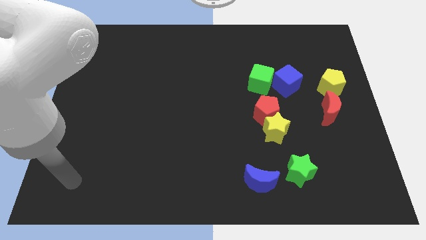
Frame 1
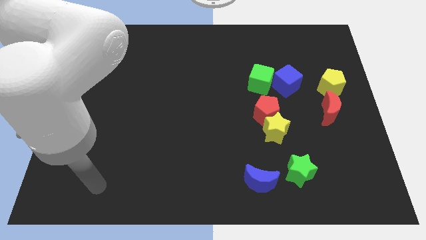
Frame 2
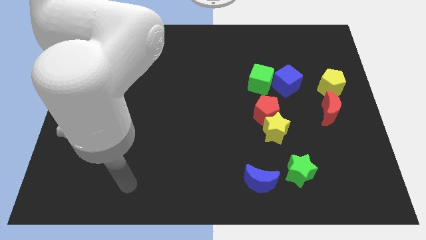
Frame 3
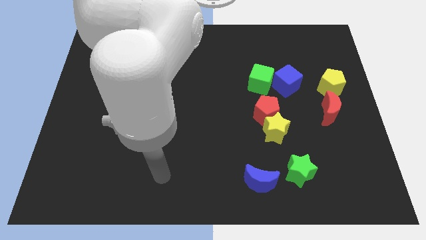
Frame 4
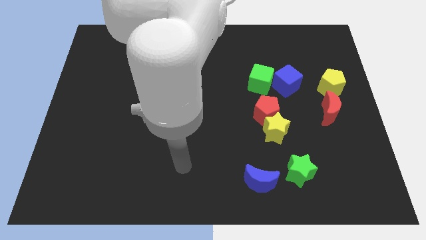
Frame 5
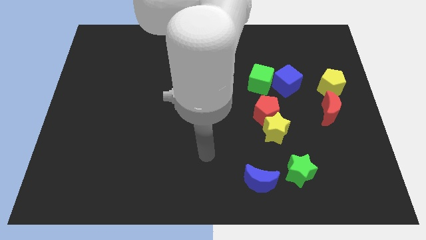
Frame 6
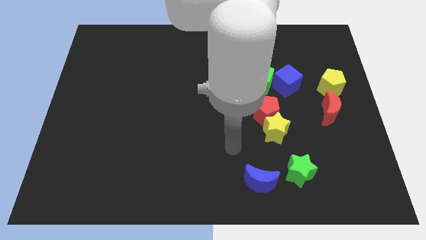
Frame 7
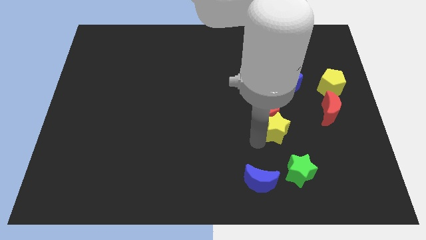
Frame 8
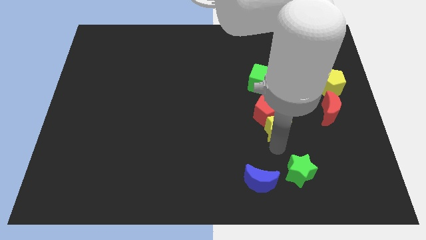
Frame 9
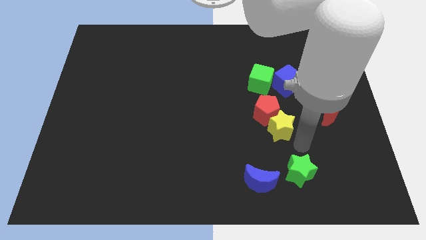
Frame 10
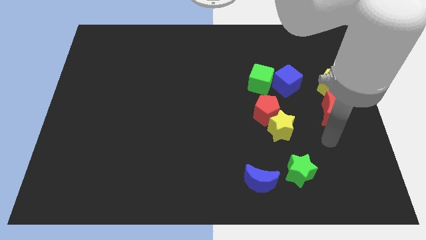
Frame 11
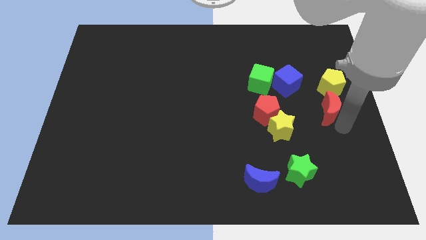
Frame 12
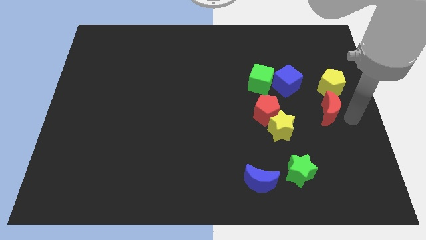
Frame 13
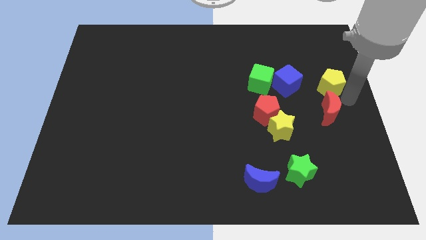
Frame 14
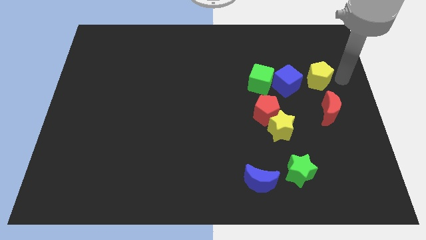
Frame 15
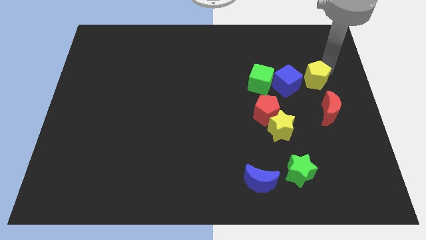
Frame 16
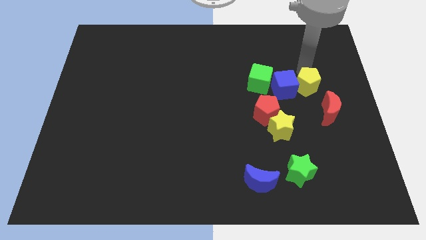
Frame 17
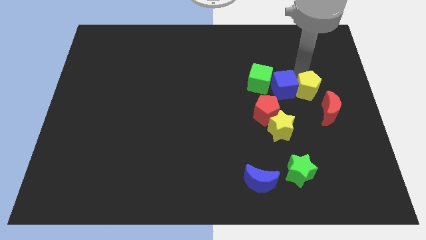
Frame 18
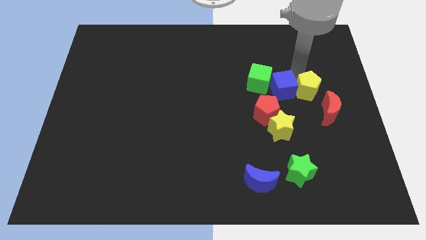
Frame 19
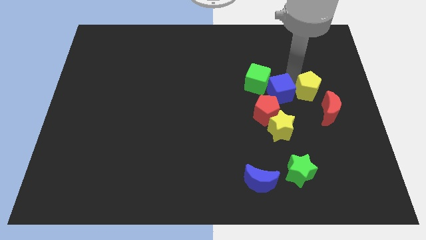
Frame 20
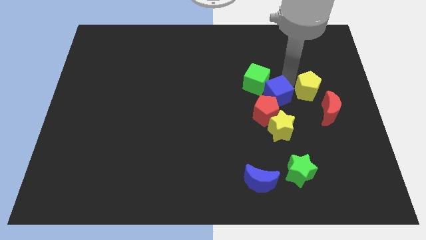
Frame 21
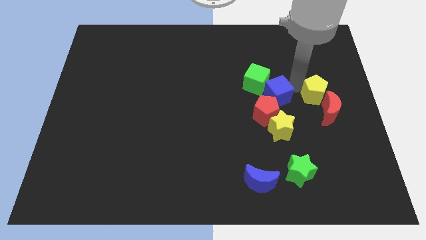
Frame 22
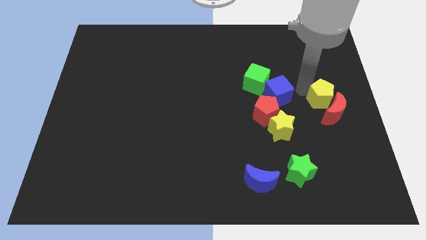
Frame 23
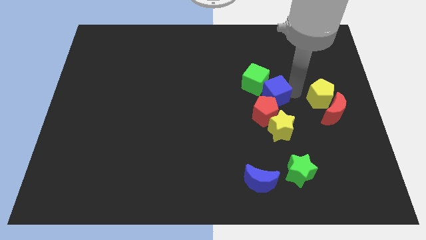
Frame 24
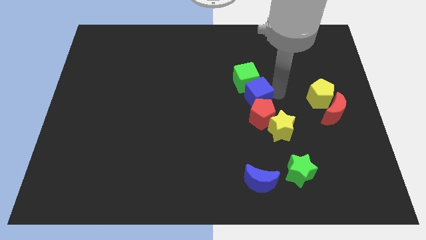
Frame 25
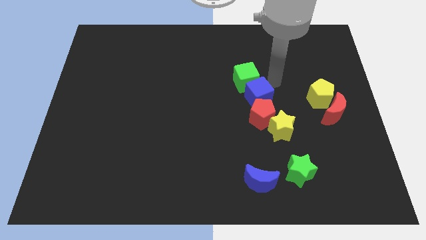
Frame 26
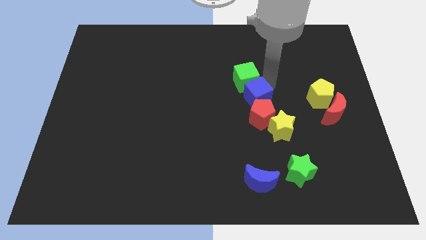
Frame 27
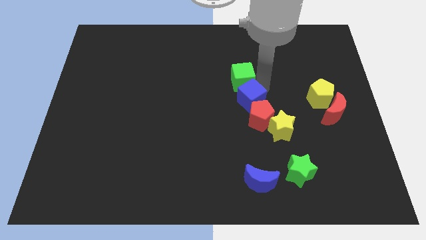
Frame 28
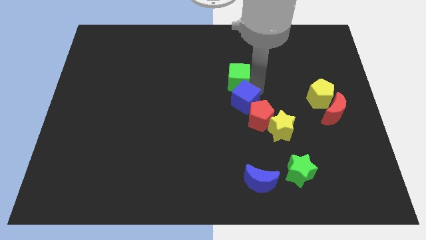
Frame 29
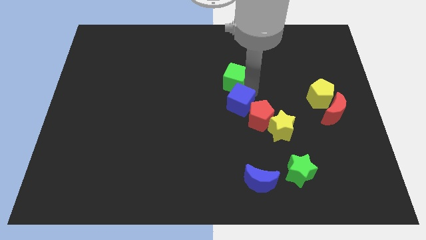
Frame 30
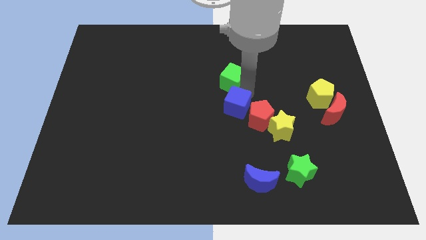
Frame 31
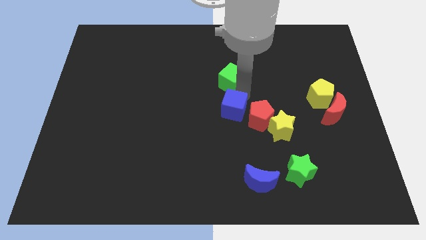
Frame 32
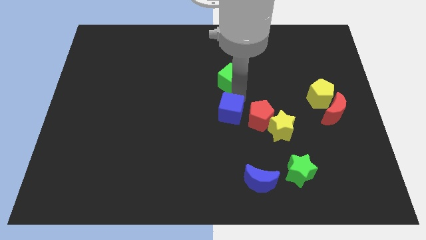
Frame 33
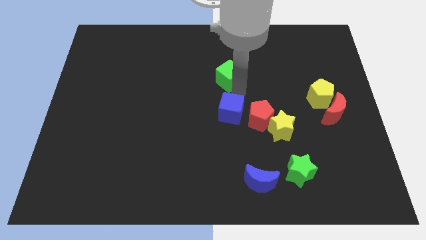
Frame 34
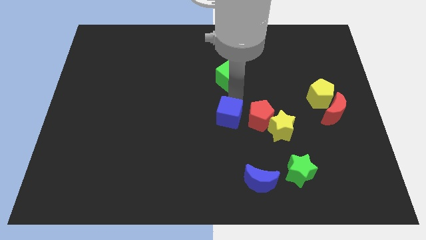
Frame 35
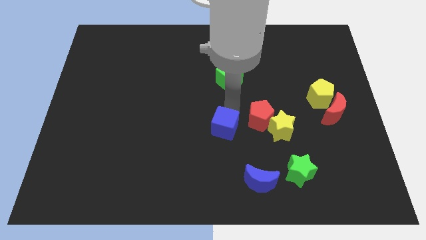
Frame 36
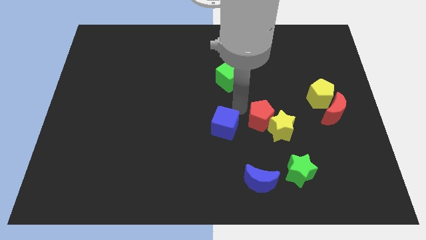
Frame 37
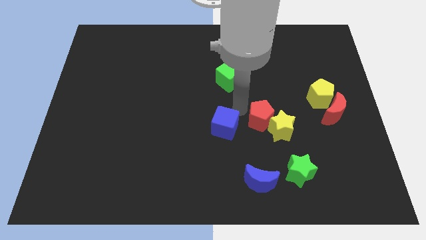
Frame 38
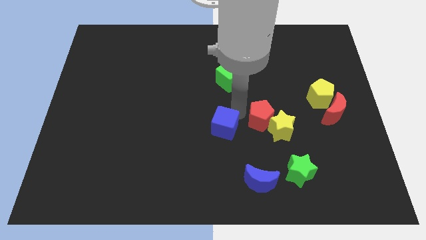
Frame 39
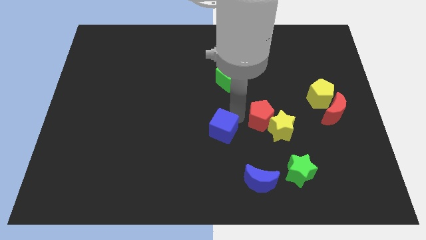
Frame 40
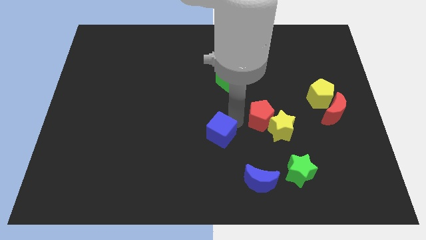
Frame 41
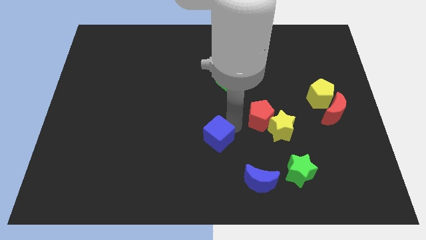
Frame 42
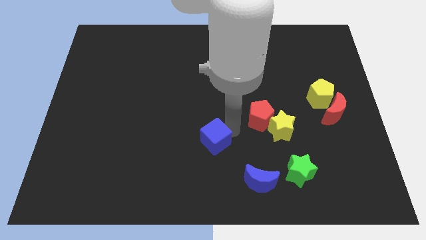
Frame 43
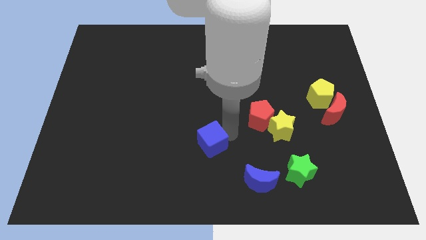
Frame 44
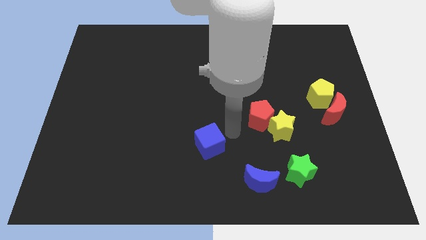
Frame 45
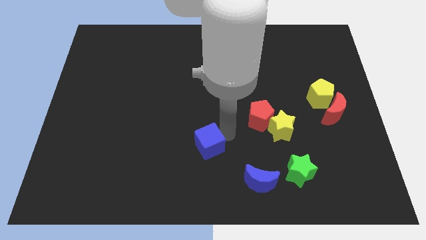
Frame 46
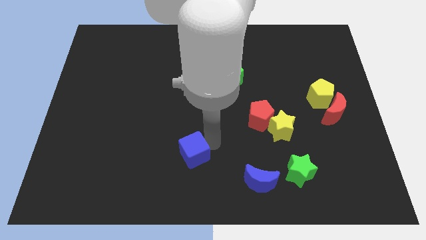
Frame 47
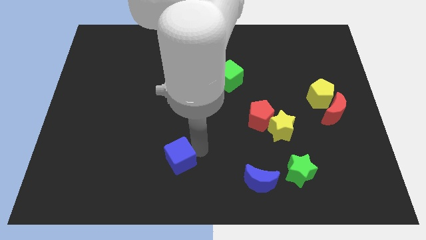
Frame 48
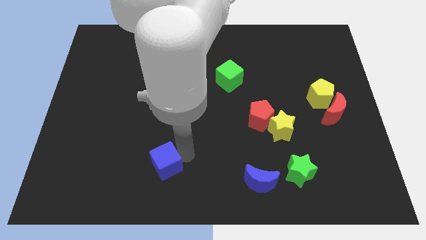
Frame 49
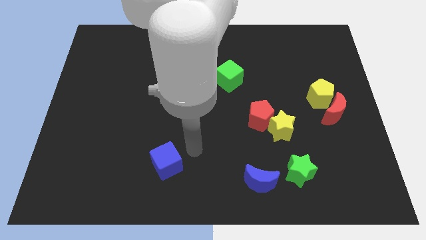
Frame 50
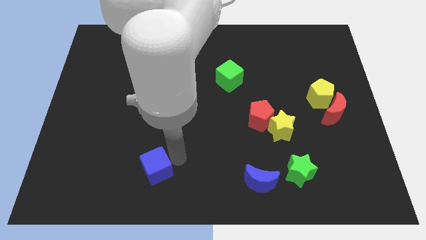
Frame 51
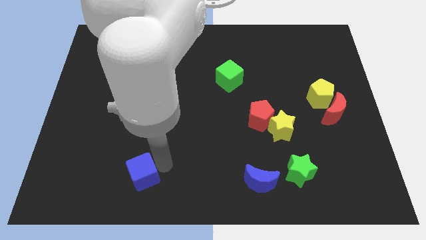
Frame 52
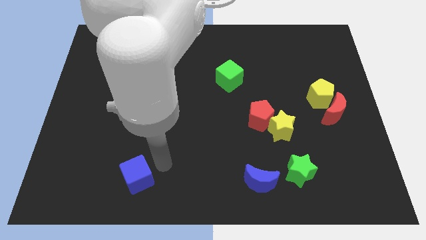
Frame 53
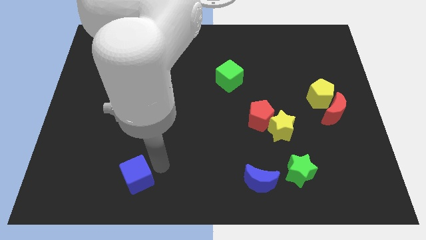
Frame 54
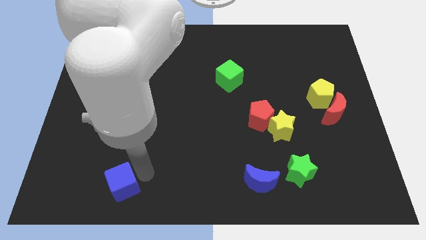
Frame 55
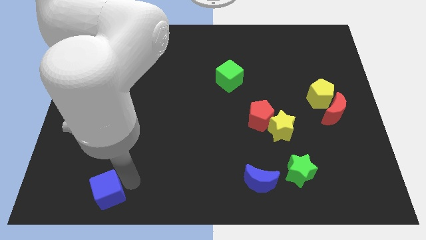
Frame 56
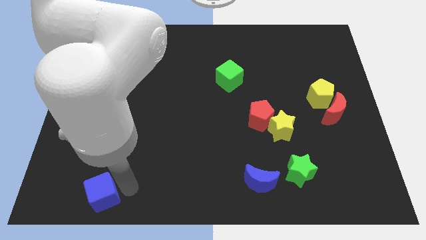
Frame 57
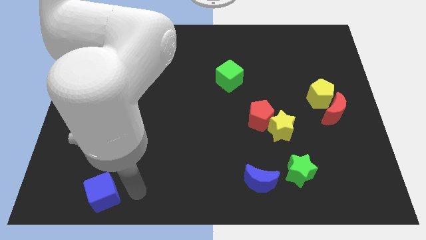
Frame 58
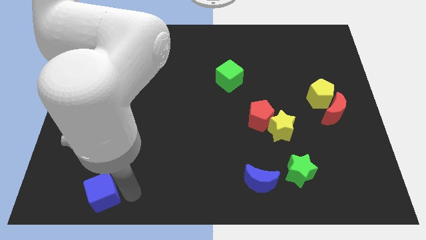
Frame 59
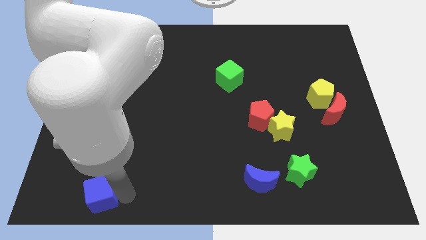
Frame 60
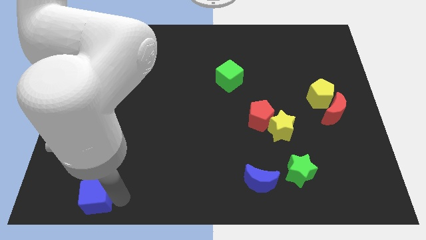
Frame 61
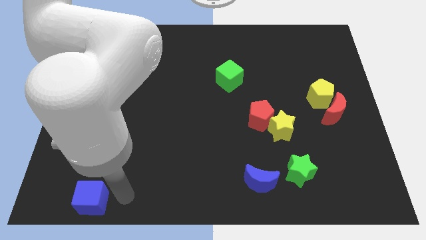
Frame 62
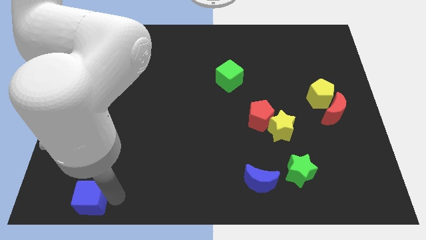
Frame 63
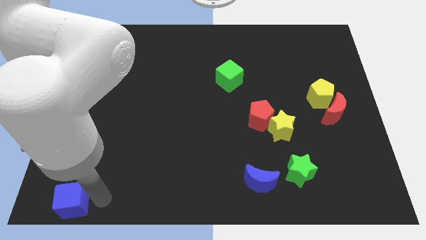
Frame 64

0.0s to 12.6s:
slide the blue cube to the bottom left
